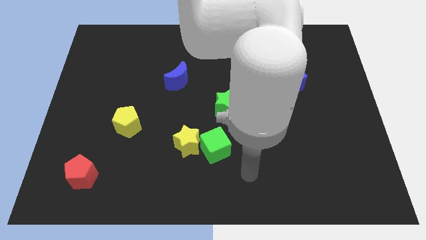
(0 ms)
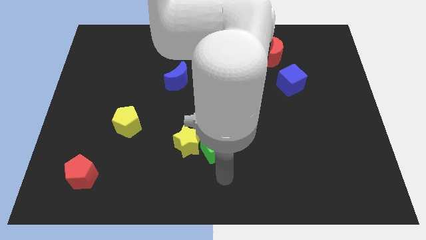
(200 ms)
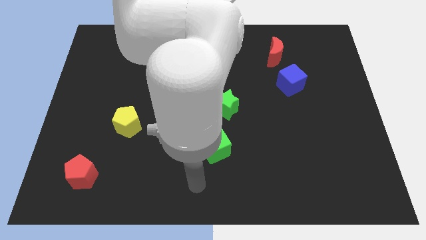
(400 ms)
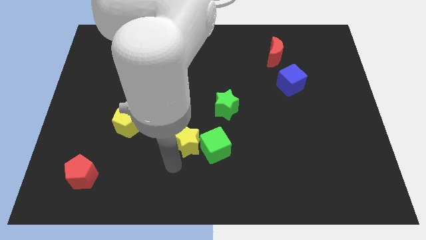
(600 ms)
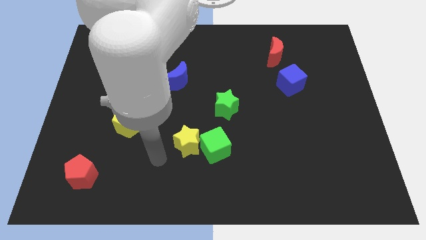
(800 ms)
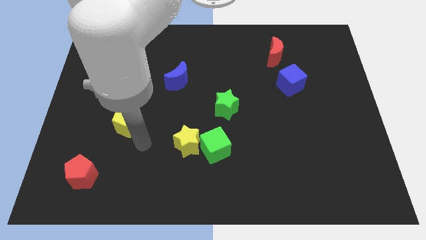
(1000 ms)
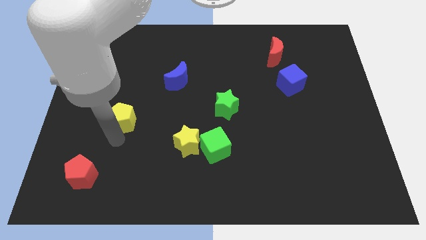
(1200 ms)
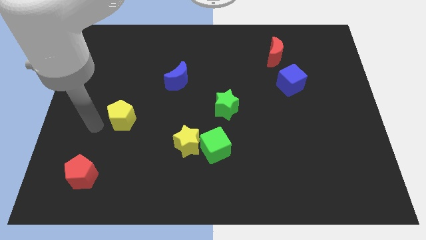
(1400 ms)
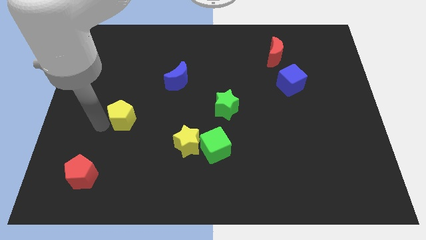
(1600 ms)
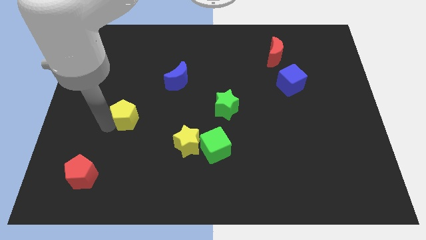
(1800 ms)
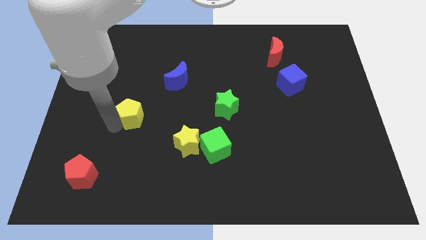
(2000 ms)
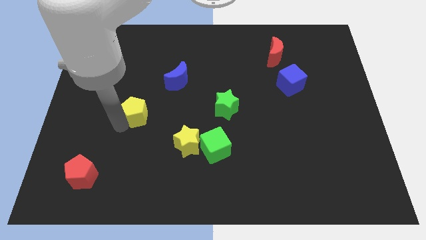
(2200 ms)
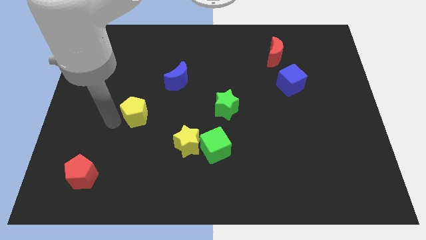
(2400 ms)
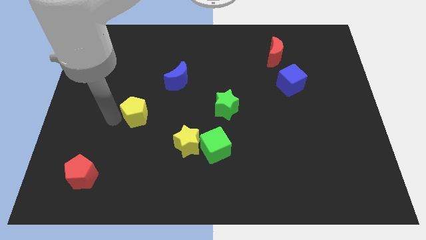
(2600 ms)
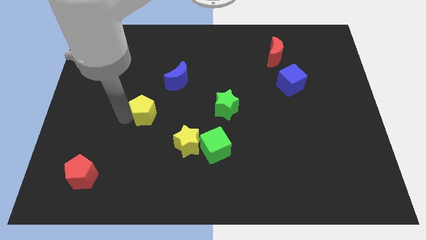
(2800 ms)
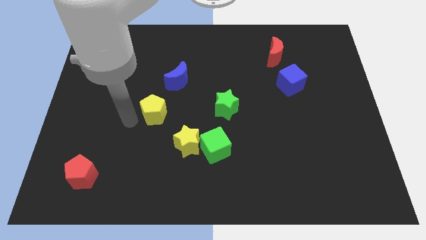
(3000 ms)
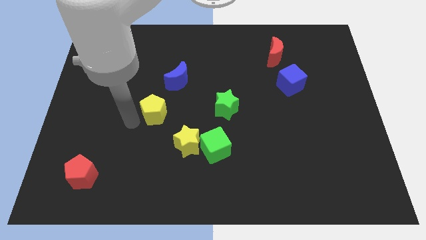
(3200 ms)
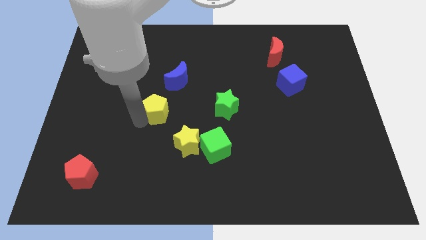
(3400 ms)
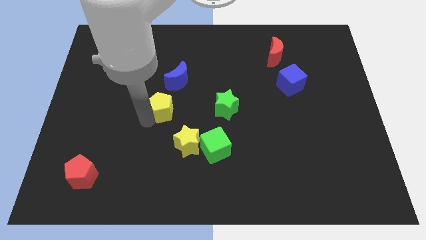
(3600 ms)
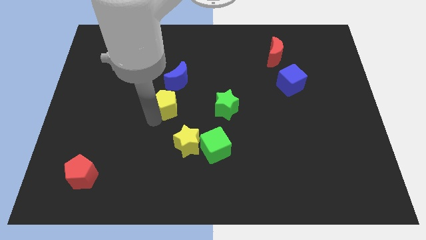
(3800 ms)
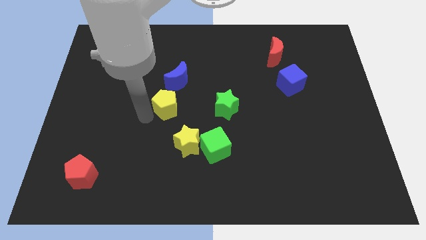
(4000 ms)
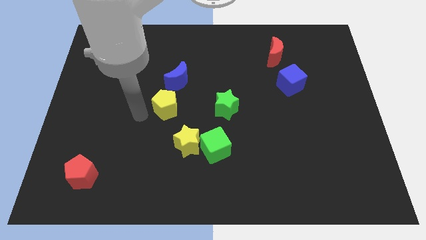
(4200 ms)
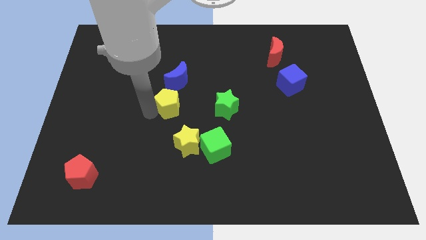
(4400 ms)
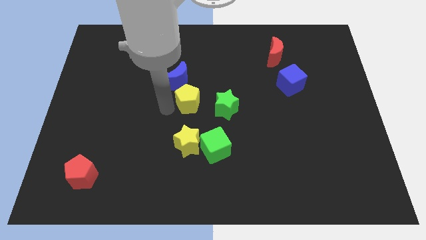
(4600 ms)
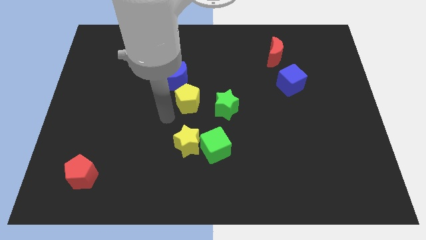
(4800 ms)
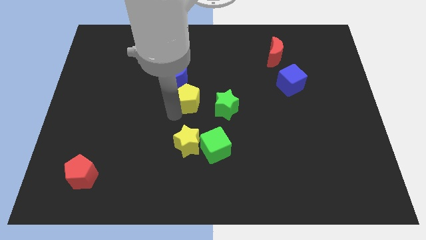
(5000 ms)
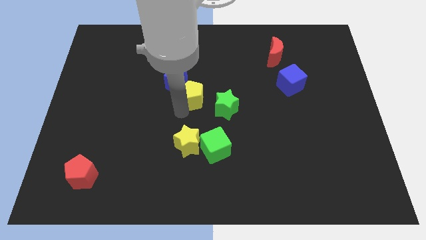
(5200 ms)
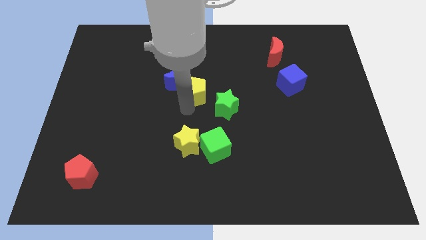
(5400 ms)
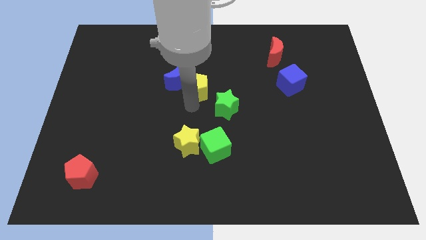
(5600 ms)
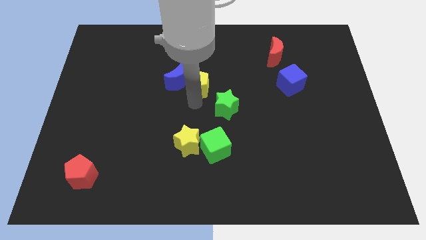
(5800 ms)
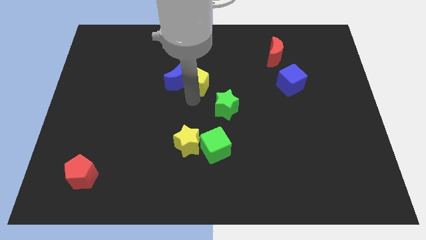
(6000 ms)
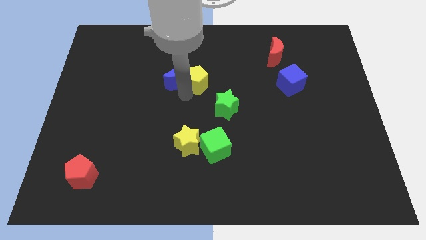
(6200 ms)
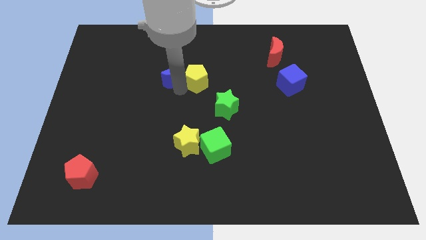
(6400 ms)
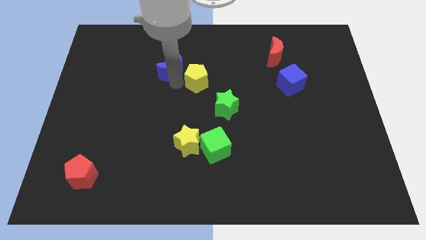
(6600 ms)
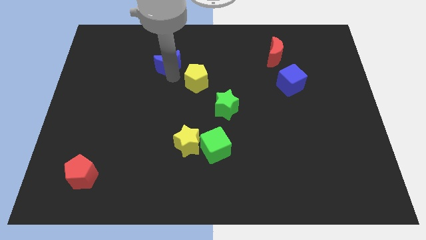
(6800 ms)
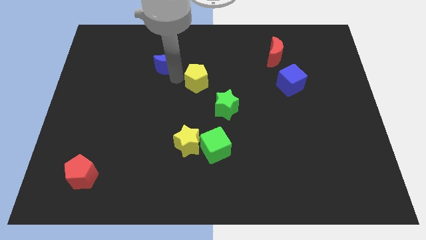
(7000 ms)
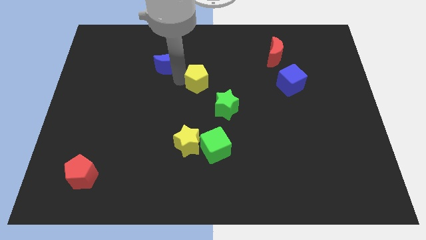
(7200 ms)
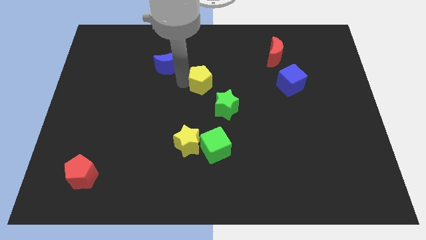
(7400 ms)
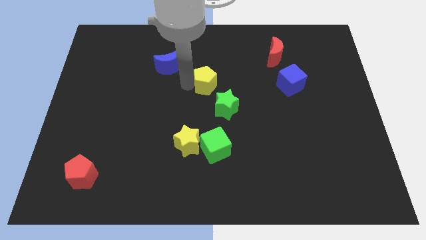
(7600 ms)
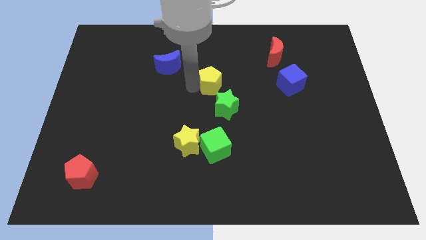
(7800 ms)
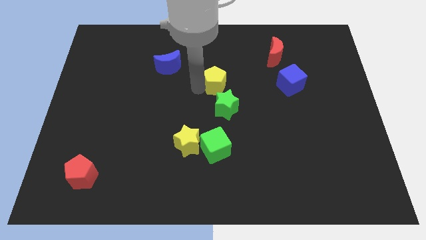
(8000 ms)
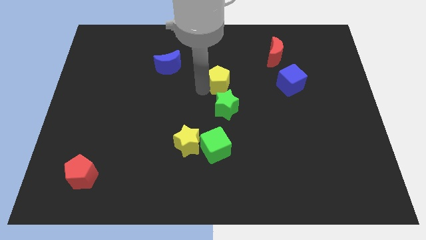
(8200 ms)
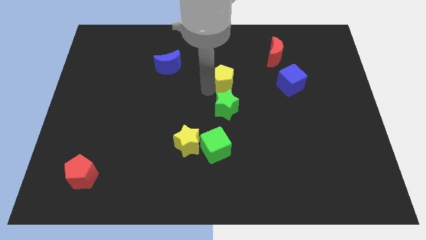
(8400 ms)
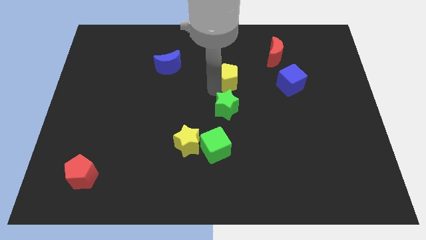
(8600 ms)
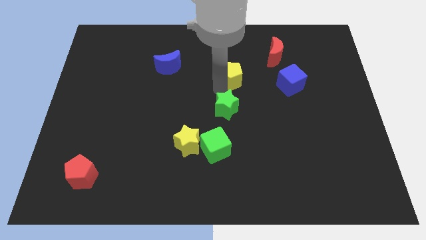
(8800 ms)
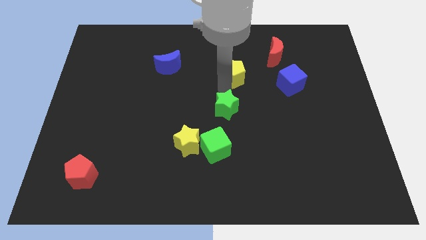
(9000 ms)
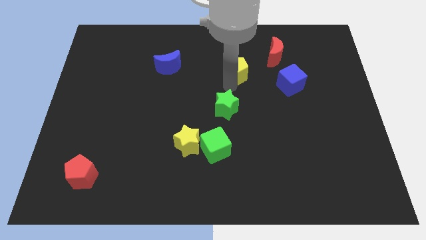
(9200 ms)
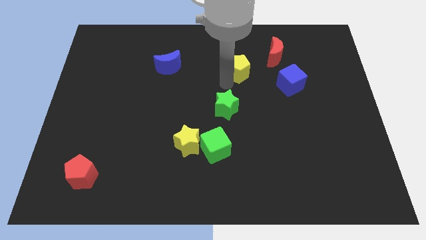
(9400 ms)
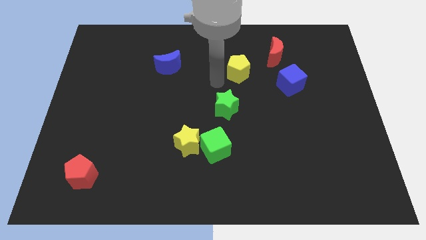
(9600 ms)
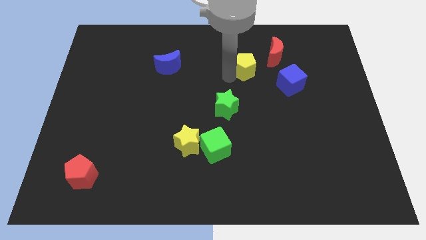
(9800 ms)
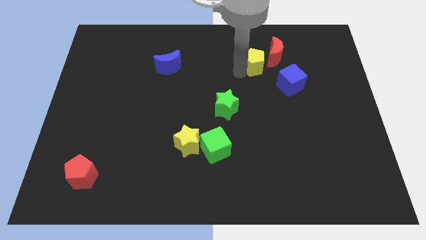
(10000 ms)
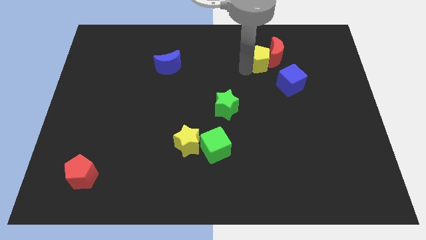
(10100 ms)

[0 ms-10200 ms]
put the yellow pentagon towards the red moon

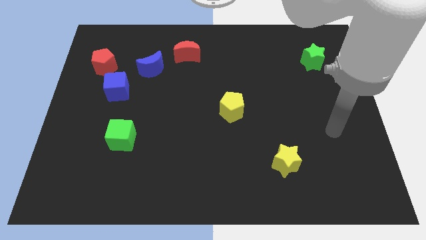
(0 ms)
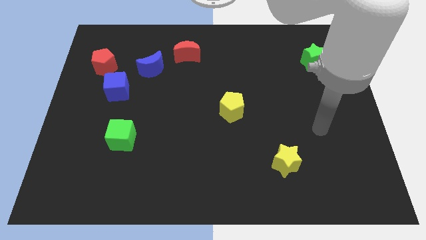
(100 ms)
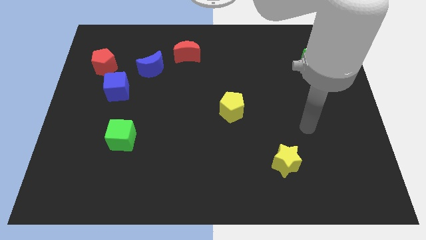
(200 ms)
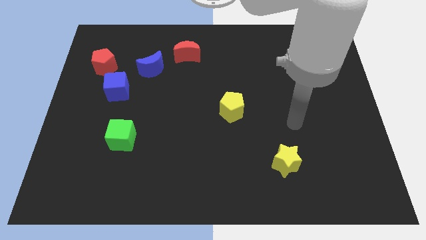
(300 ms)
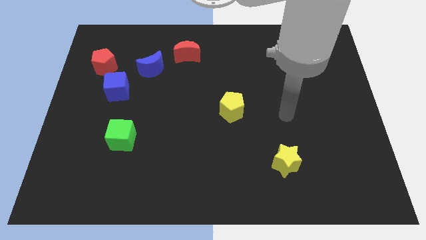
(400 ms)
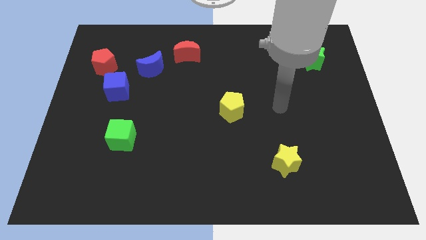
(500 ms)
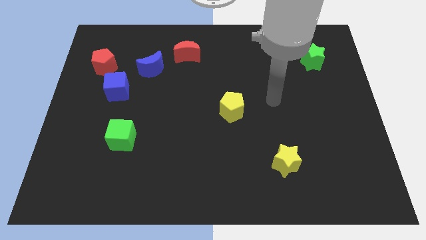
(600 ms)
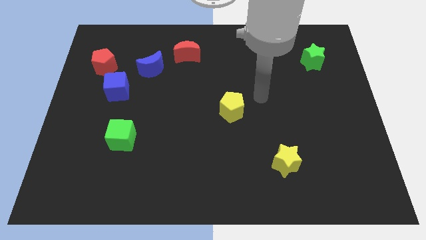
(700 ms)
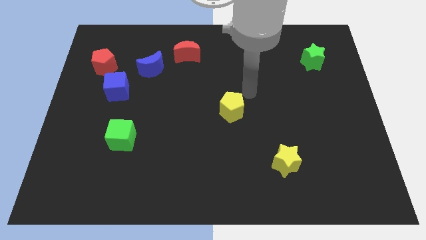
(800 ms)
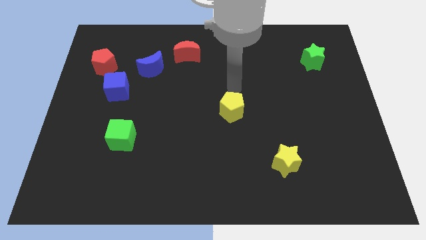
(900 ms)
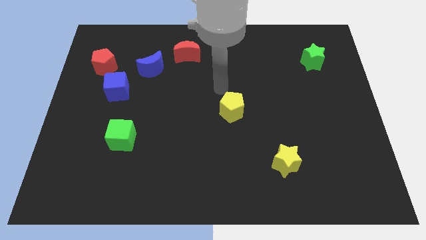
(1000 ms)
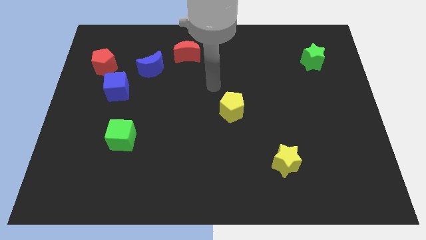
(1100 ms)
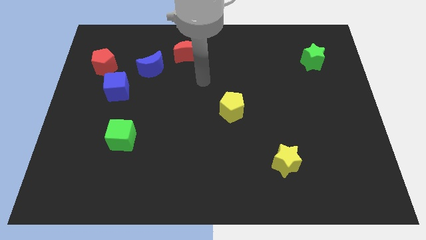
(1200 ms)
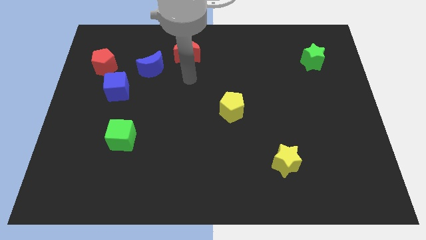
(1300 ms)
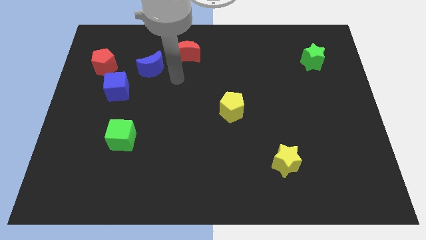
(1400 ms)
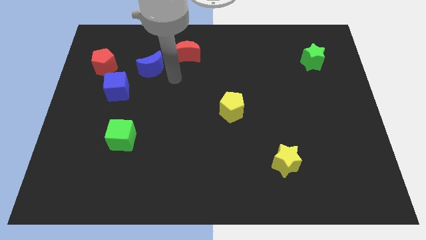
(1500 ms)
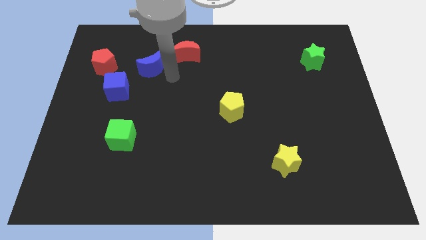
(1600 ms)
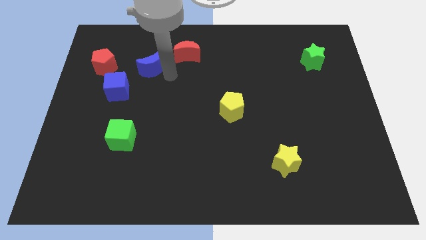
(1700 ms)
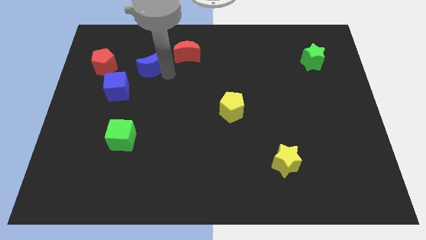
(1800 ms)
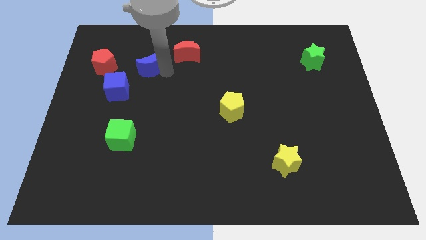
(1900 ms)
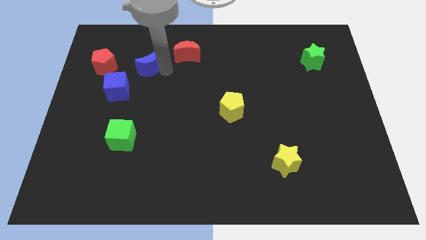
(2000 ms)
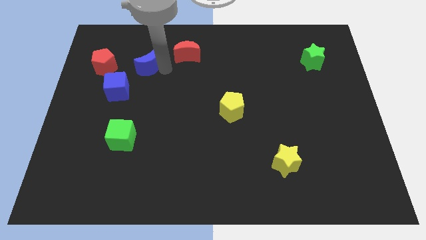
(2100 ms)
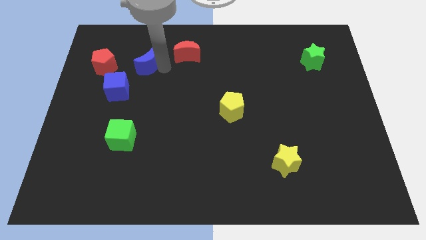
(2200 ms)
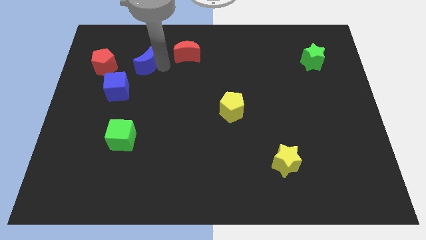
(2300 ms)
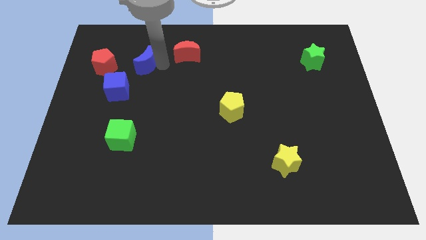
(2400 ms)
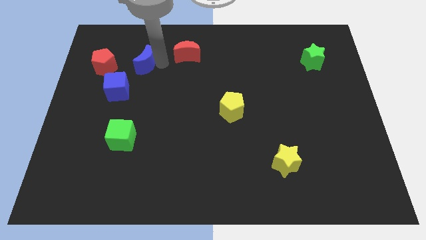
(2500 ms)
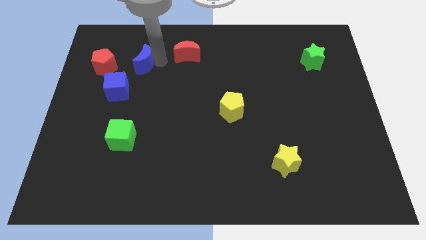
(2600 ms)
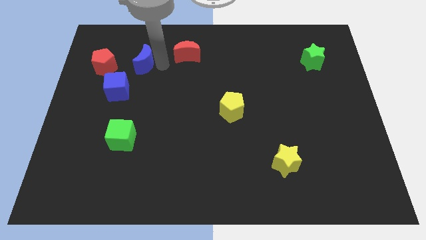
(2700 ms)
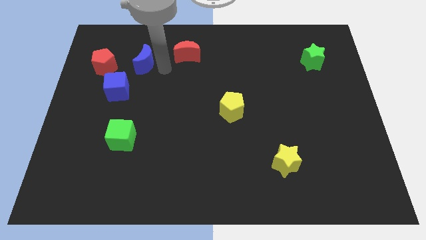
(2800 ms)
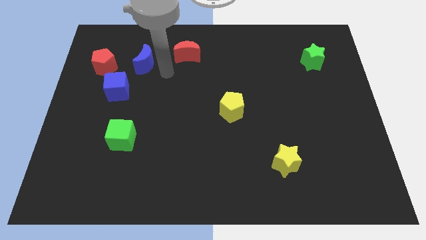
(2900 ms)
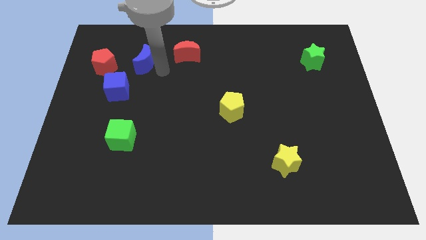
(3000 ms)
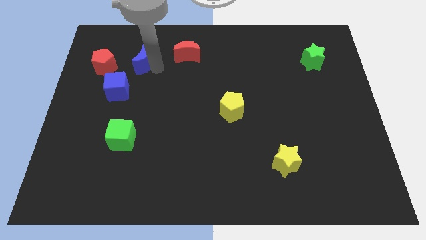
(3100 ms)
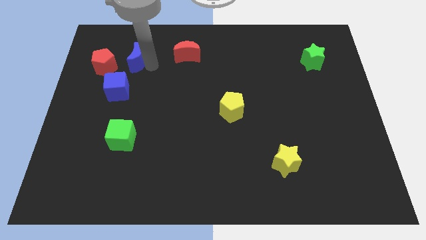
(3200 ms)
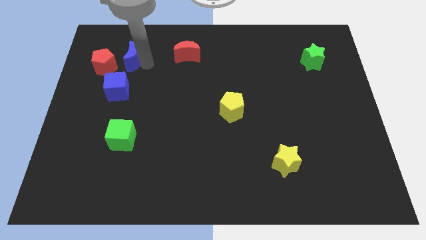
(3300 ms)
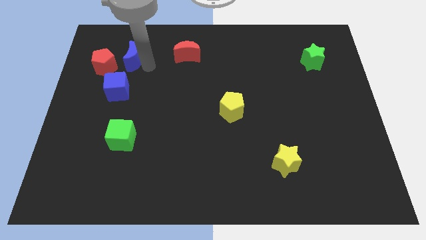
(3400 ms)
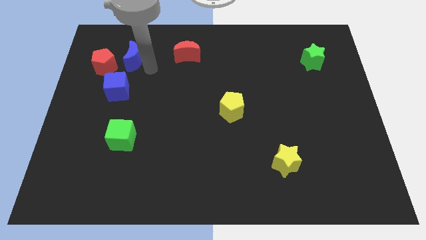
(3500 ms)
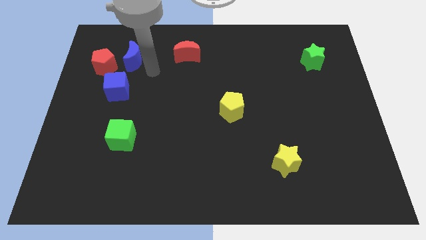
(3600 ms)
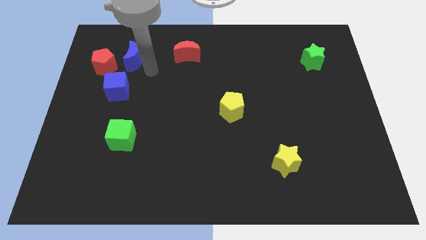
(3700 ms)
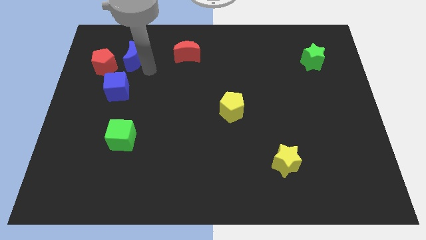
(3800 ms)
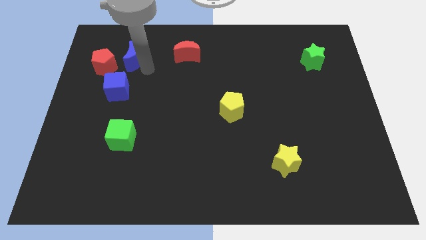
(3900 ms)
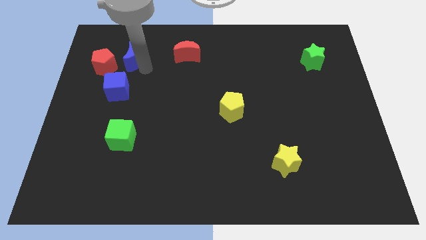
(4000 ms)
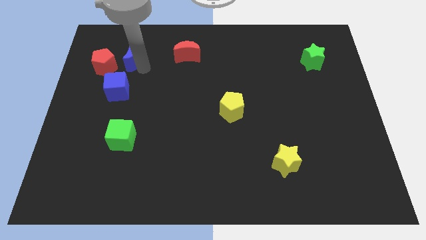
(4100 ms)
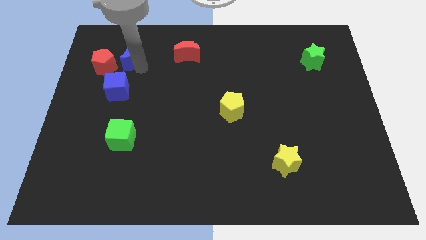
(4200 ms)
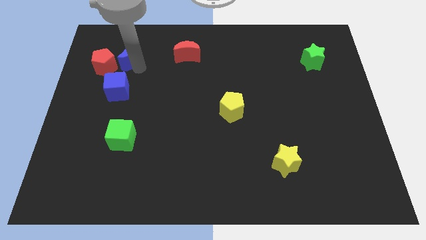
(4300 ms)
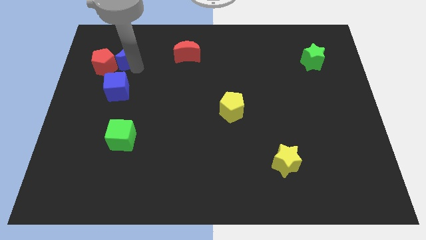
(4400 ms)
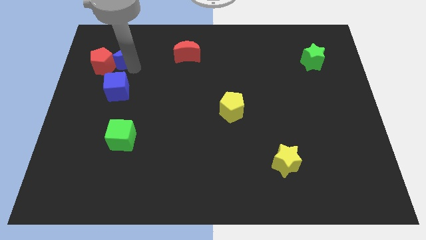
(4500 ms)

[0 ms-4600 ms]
move the blue moon towards the red pentagon
